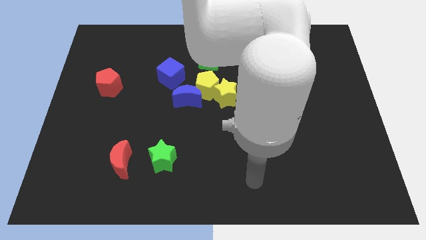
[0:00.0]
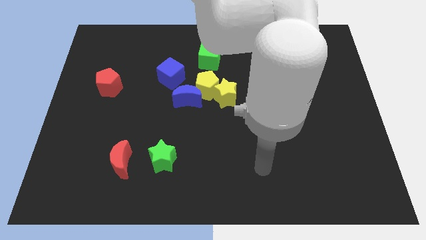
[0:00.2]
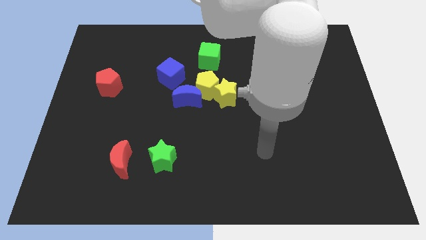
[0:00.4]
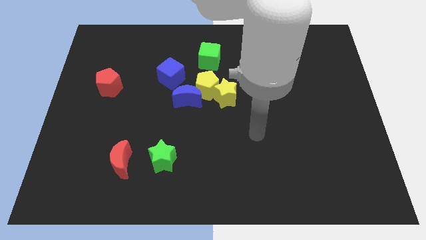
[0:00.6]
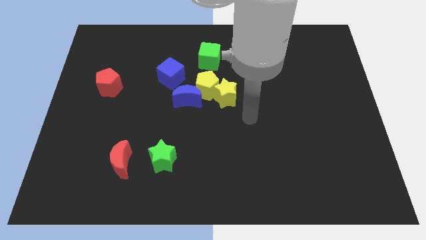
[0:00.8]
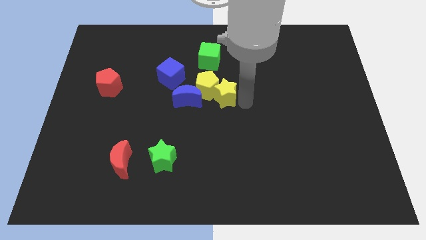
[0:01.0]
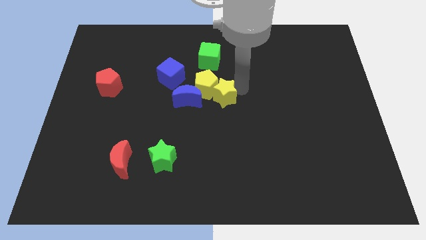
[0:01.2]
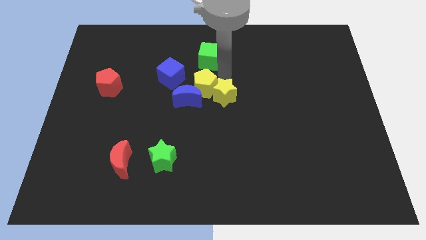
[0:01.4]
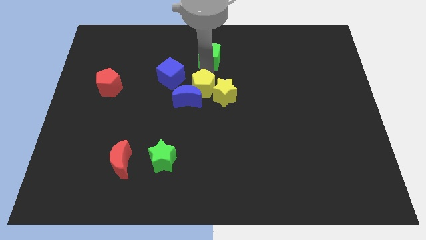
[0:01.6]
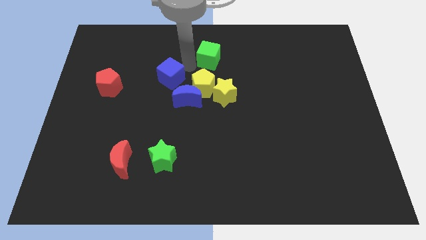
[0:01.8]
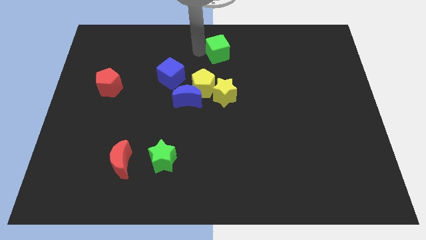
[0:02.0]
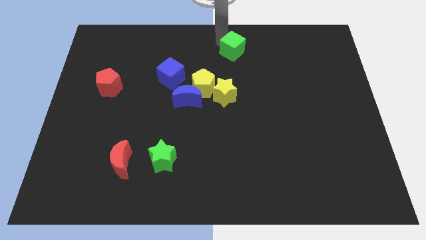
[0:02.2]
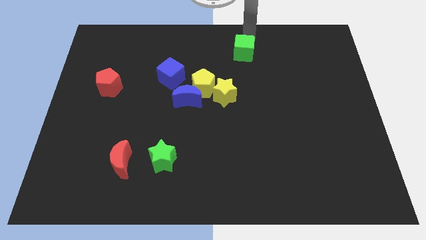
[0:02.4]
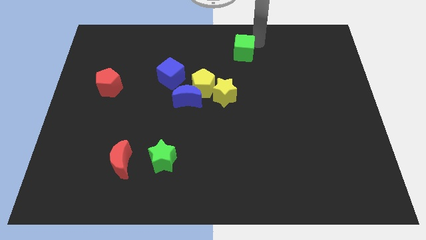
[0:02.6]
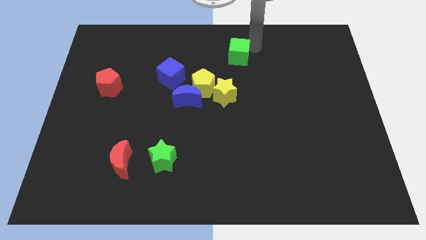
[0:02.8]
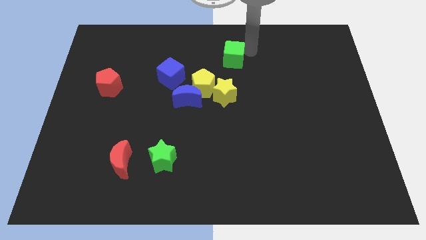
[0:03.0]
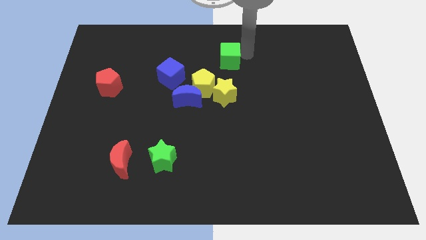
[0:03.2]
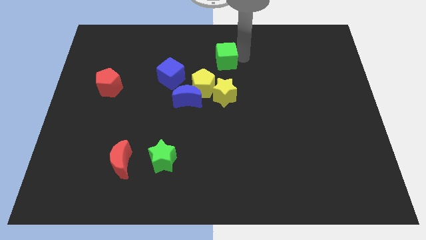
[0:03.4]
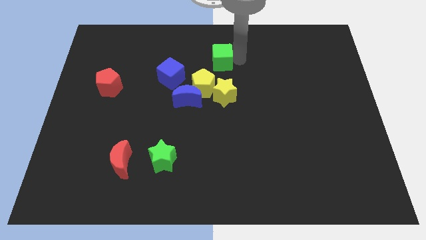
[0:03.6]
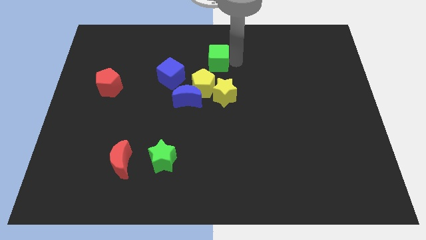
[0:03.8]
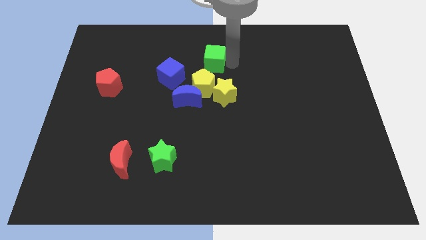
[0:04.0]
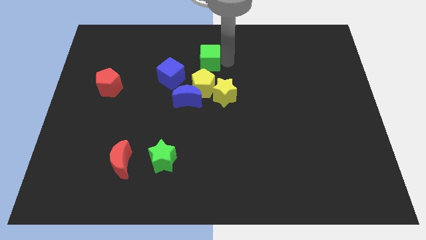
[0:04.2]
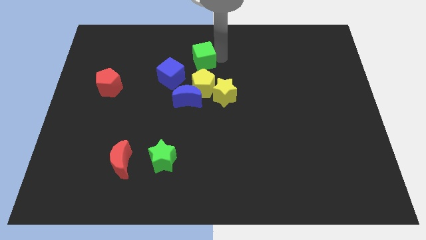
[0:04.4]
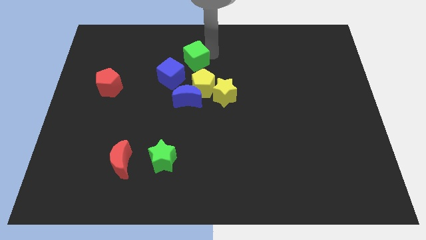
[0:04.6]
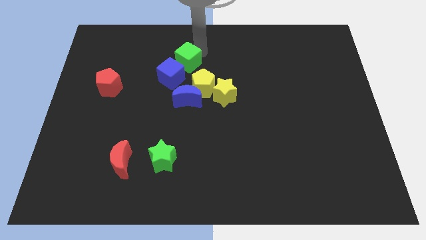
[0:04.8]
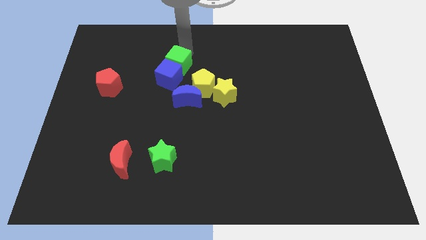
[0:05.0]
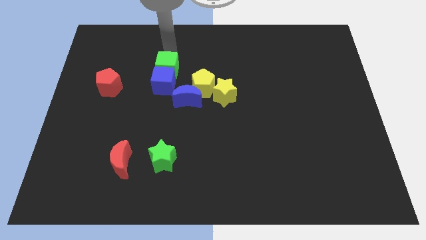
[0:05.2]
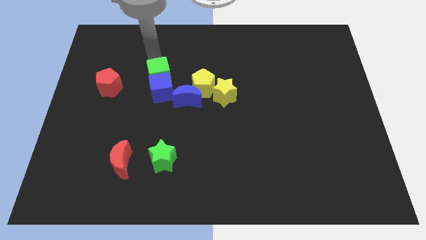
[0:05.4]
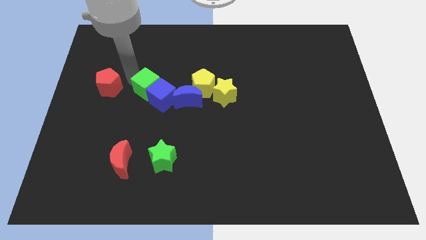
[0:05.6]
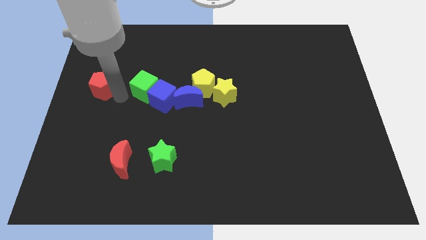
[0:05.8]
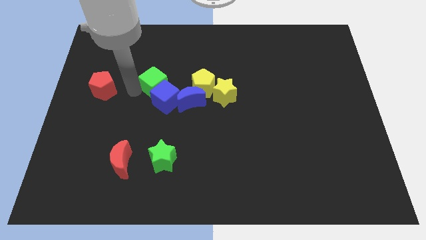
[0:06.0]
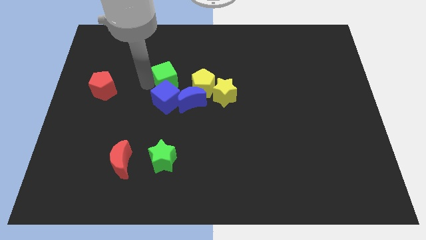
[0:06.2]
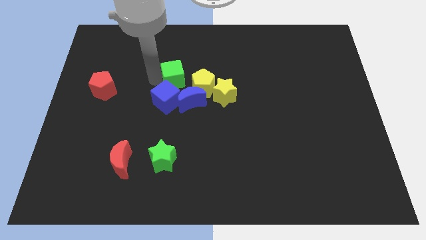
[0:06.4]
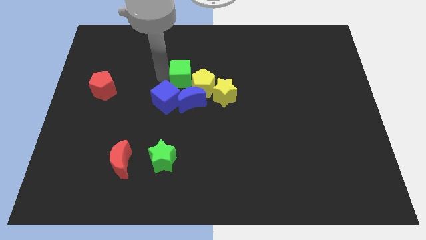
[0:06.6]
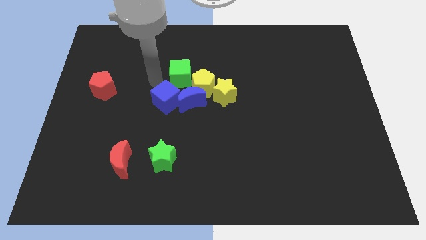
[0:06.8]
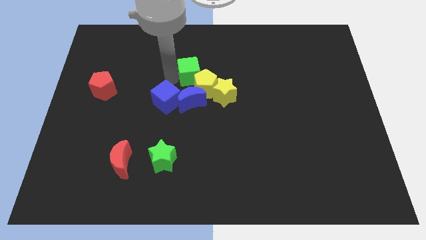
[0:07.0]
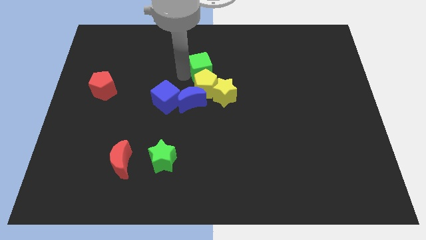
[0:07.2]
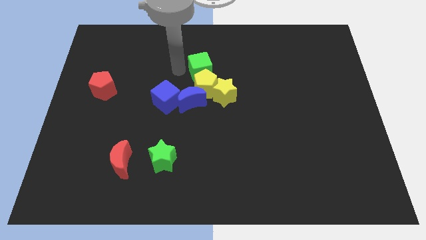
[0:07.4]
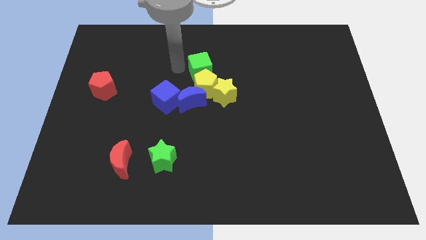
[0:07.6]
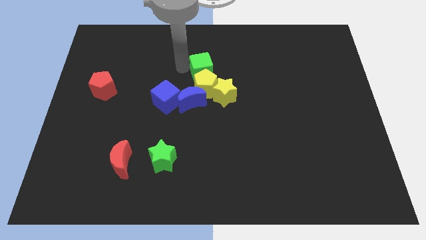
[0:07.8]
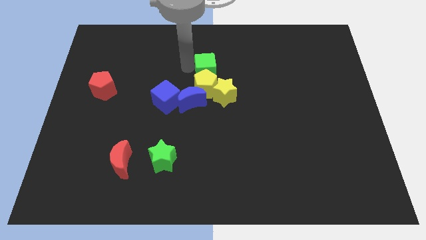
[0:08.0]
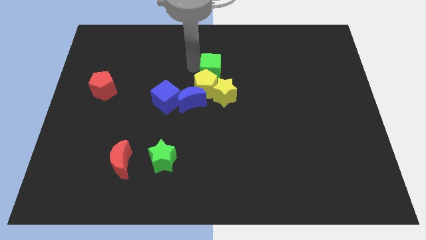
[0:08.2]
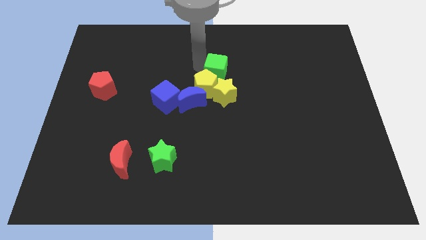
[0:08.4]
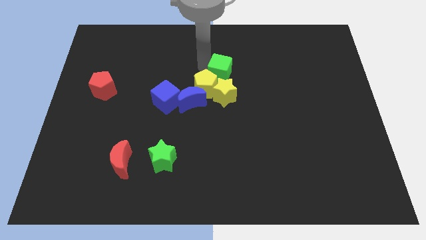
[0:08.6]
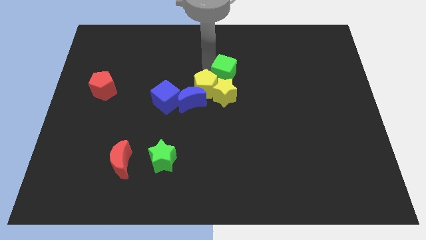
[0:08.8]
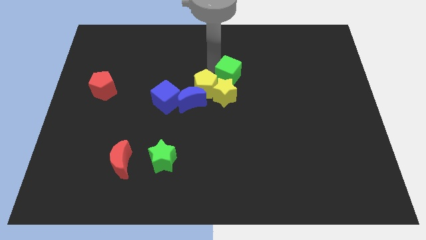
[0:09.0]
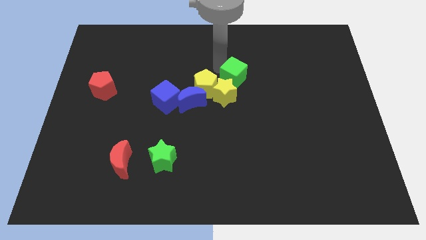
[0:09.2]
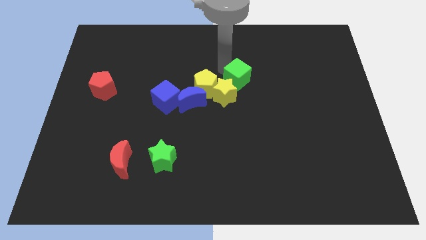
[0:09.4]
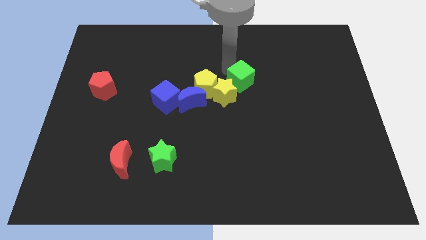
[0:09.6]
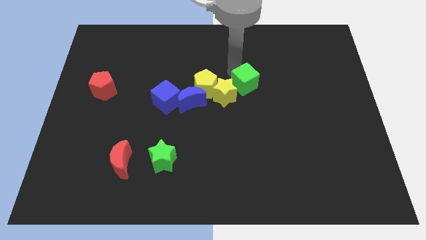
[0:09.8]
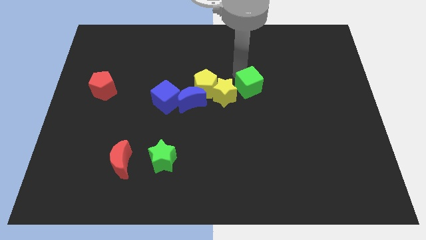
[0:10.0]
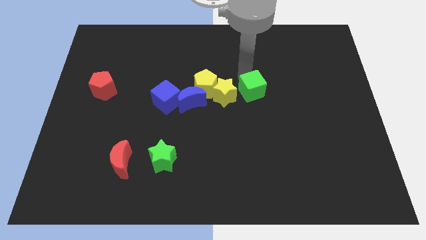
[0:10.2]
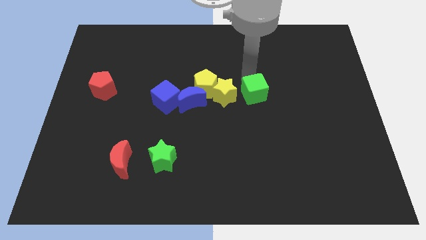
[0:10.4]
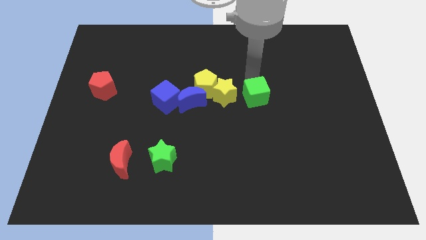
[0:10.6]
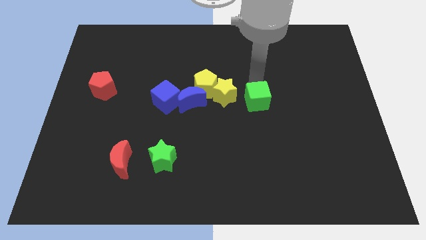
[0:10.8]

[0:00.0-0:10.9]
slightly move the green cube downwards

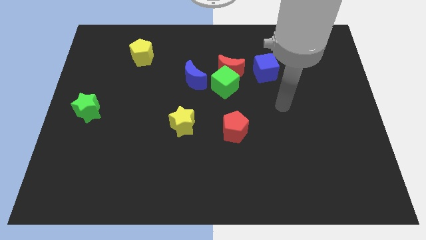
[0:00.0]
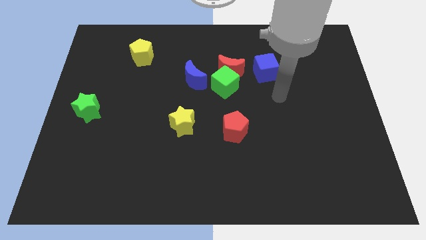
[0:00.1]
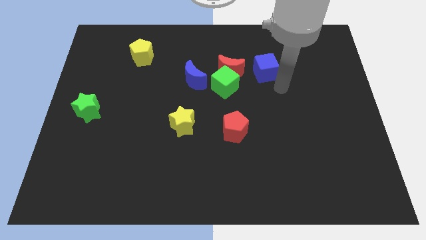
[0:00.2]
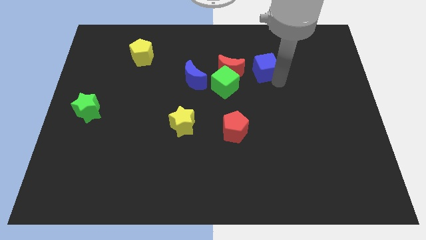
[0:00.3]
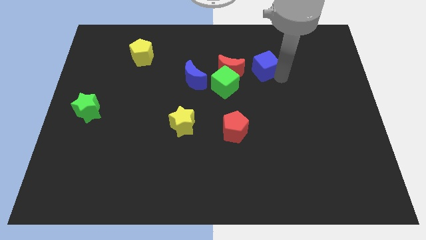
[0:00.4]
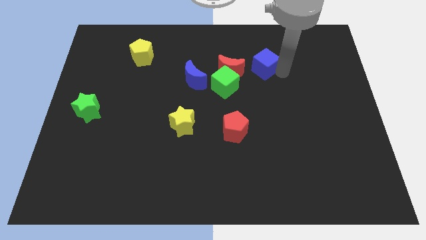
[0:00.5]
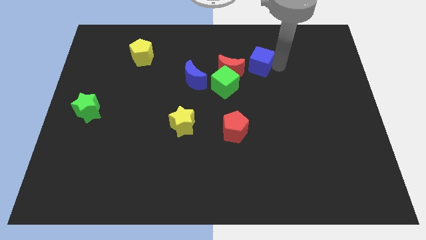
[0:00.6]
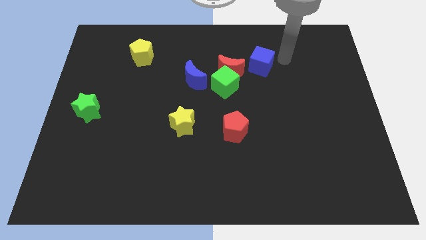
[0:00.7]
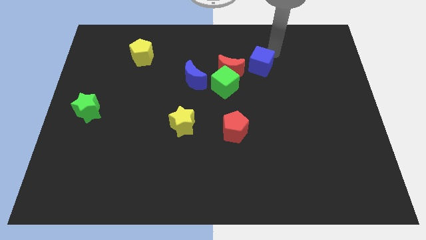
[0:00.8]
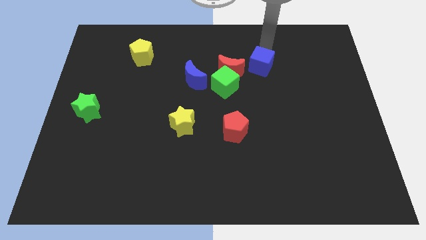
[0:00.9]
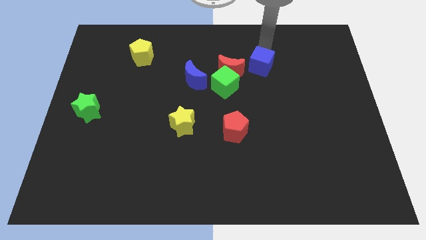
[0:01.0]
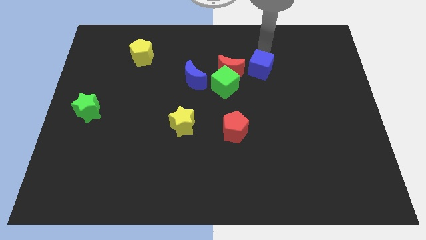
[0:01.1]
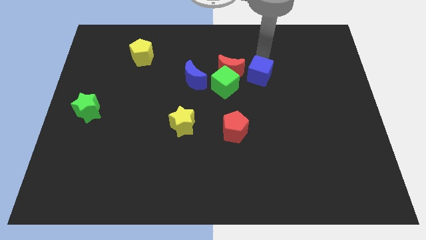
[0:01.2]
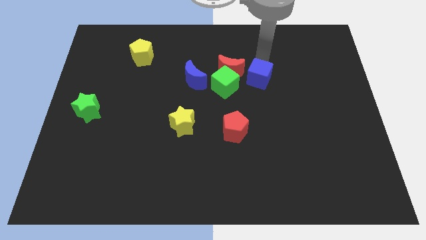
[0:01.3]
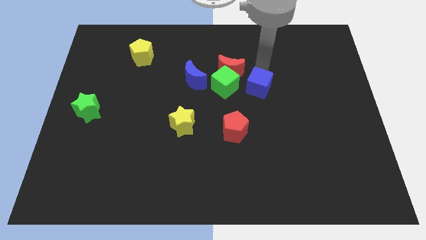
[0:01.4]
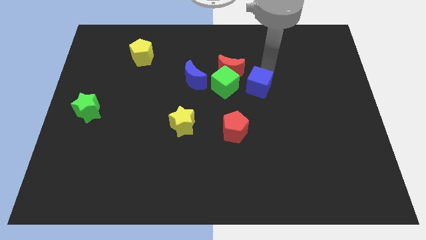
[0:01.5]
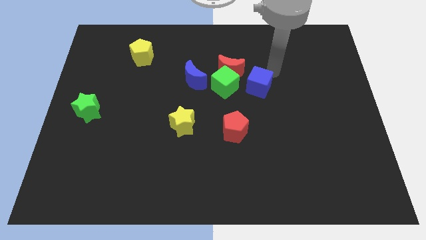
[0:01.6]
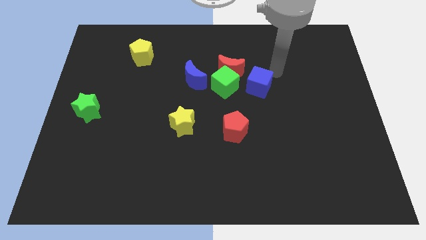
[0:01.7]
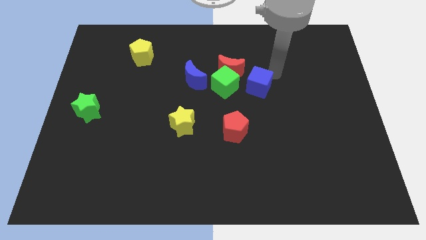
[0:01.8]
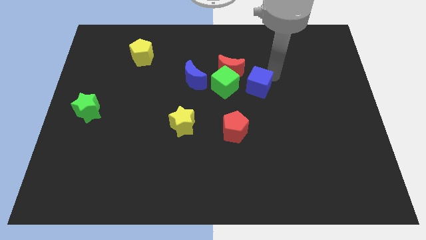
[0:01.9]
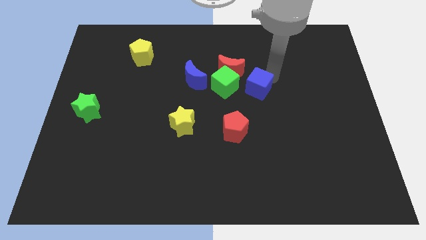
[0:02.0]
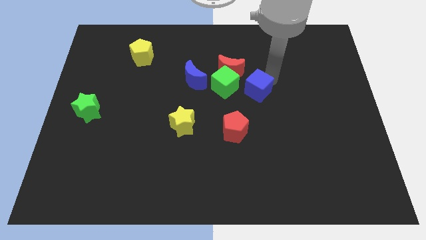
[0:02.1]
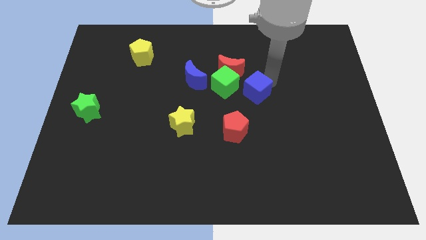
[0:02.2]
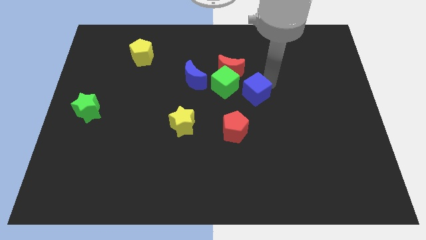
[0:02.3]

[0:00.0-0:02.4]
move the blue cube a little downwards and then to the left

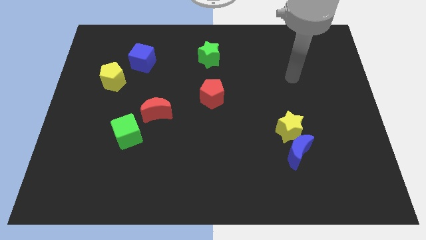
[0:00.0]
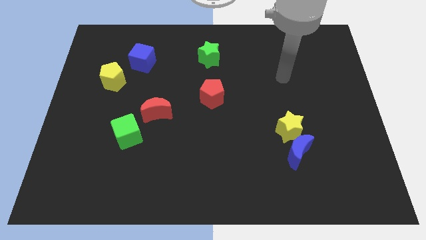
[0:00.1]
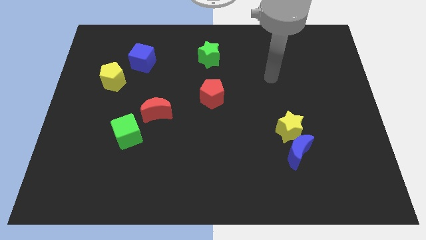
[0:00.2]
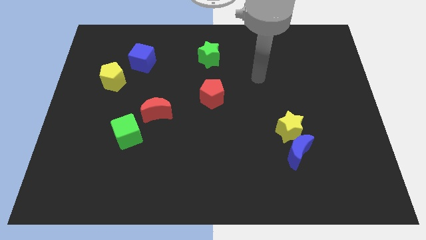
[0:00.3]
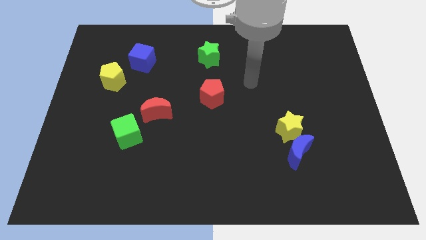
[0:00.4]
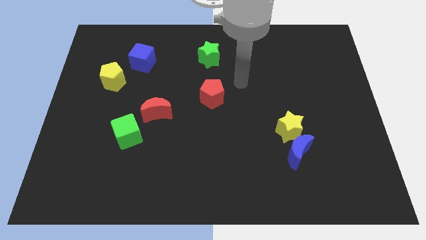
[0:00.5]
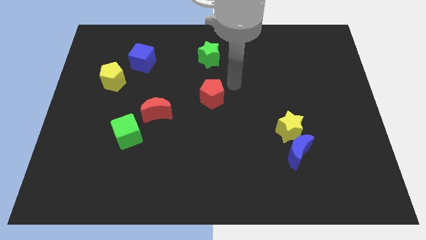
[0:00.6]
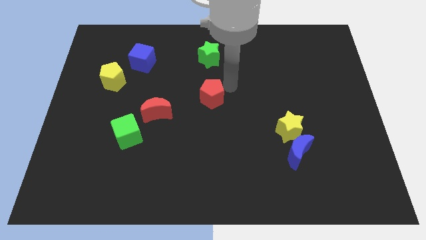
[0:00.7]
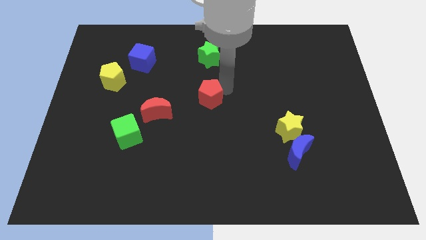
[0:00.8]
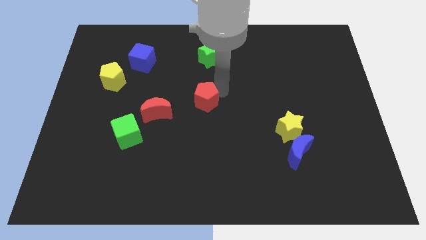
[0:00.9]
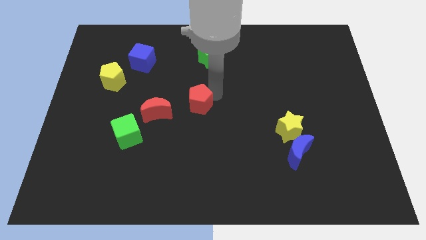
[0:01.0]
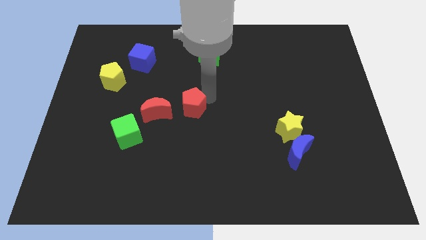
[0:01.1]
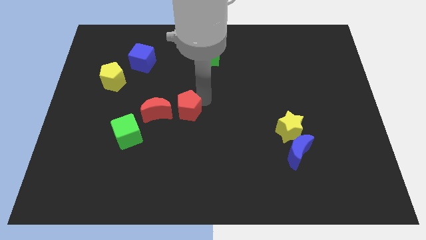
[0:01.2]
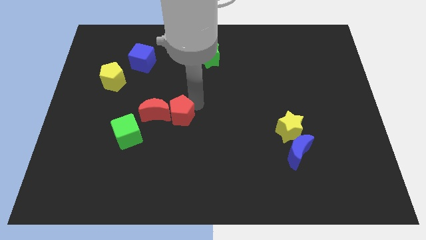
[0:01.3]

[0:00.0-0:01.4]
slightly move the red pentagon down and then to the left
